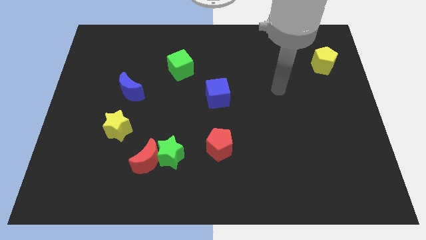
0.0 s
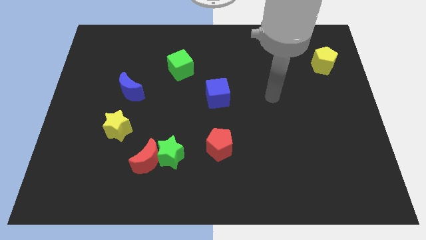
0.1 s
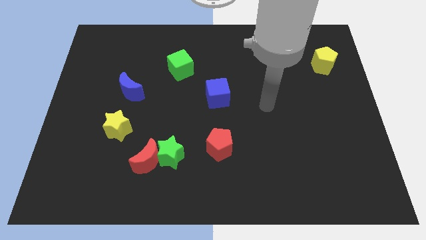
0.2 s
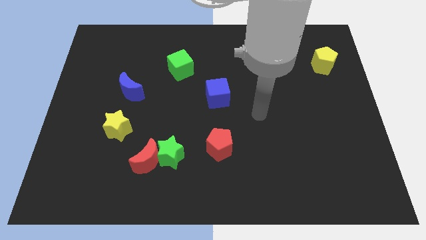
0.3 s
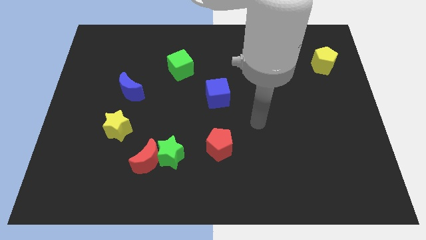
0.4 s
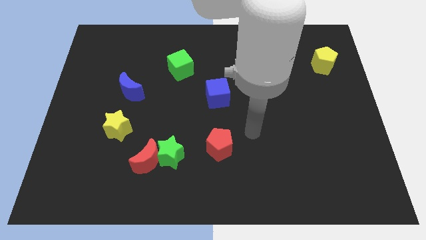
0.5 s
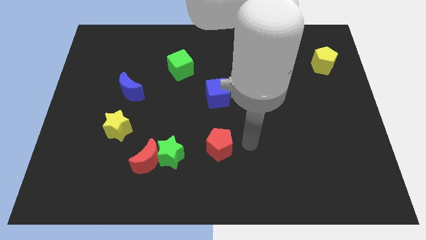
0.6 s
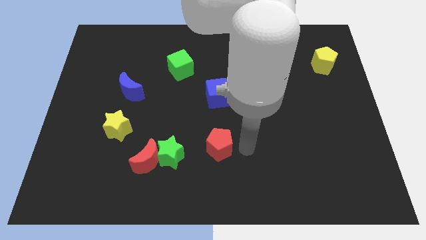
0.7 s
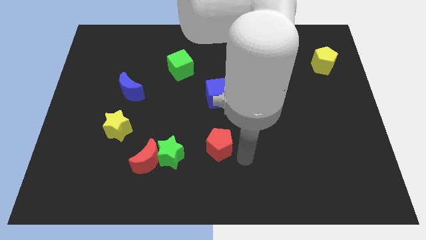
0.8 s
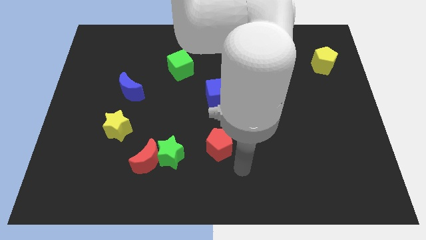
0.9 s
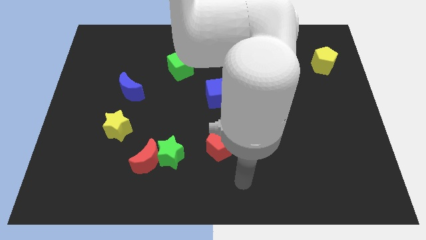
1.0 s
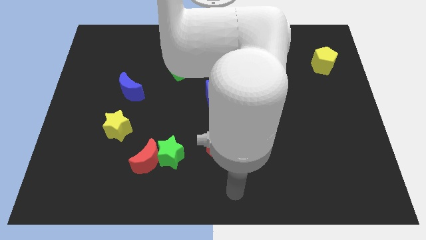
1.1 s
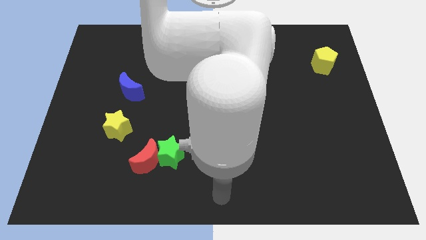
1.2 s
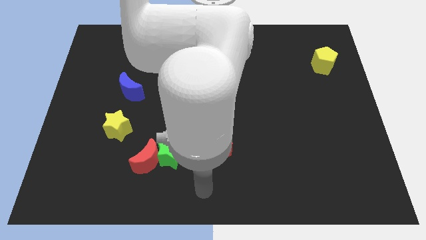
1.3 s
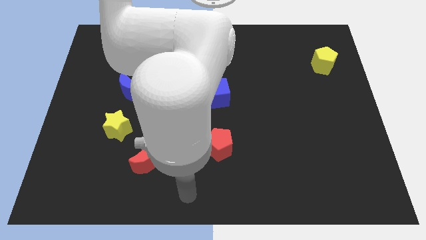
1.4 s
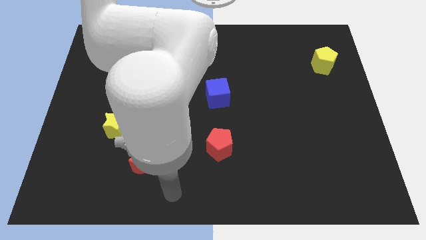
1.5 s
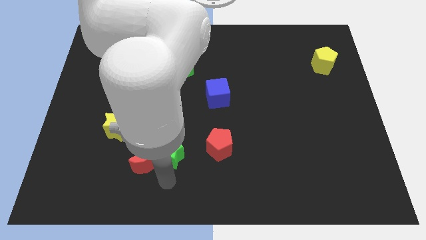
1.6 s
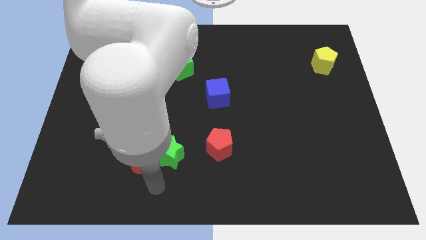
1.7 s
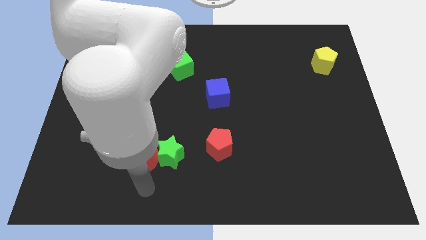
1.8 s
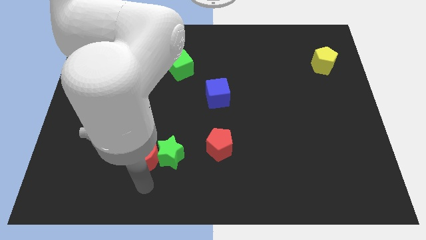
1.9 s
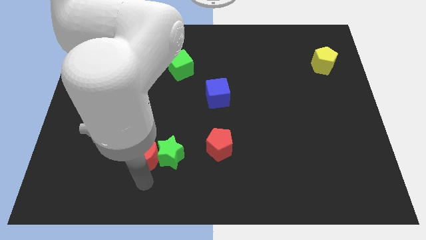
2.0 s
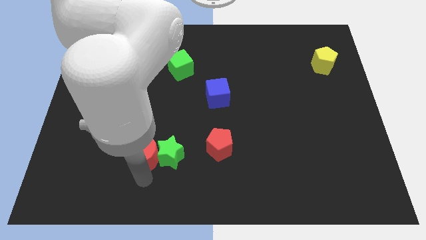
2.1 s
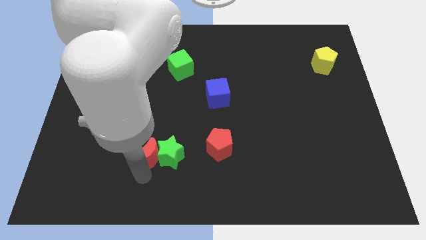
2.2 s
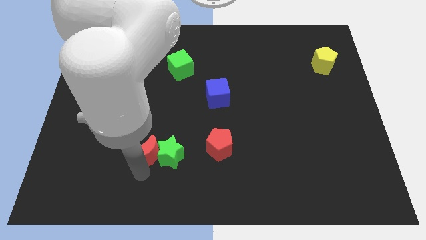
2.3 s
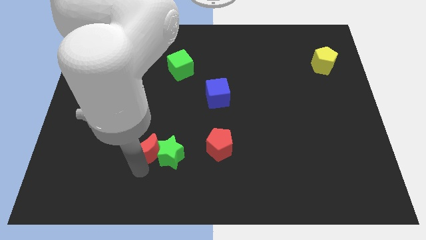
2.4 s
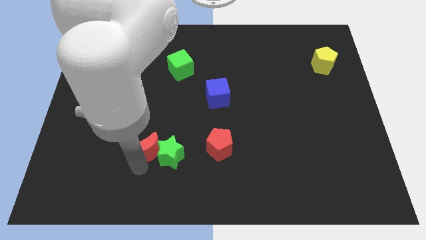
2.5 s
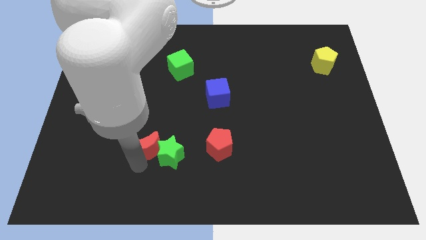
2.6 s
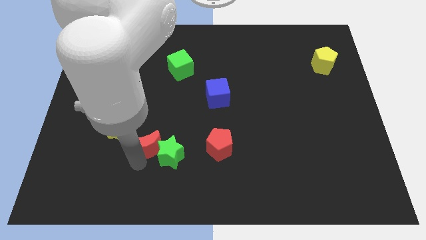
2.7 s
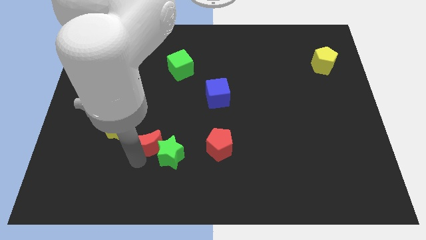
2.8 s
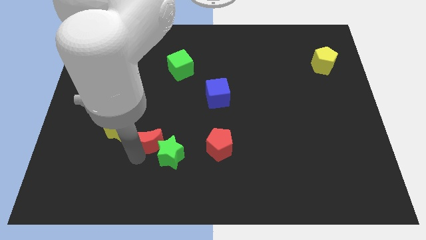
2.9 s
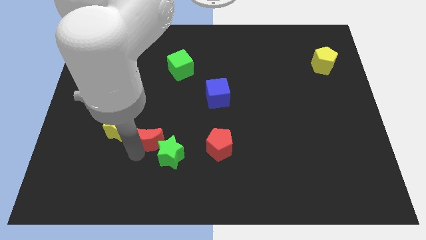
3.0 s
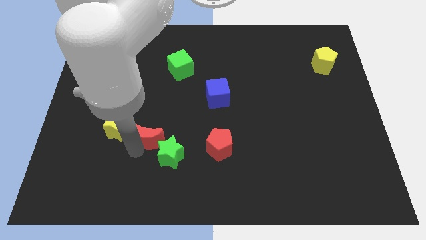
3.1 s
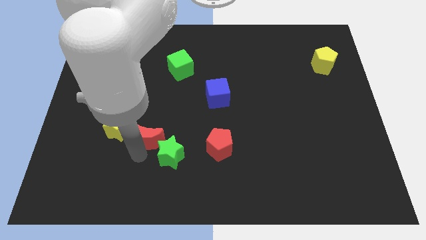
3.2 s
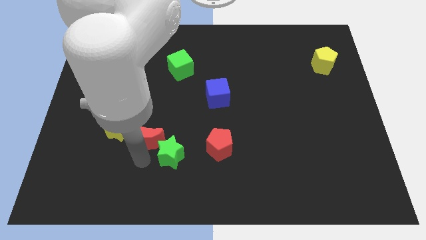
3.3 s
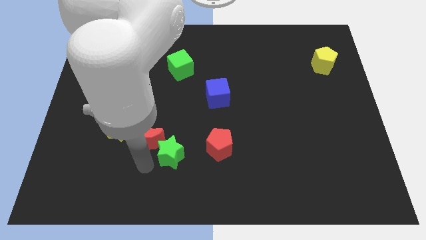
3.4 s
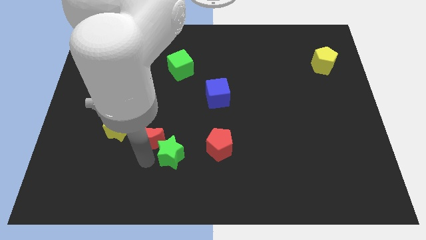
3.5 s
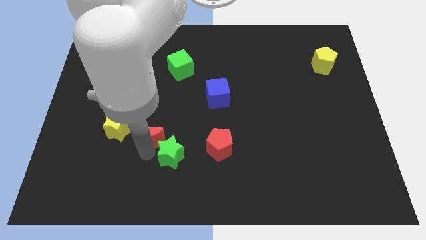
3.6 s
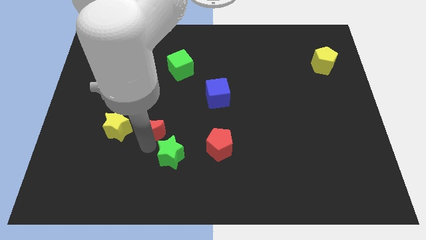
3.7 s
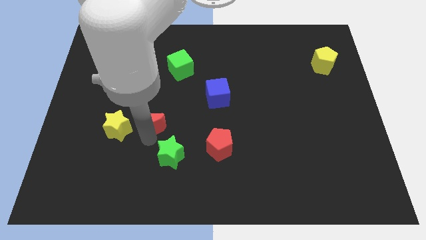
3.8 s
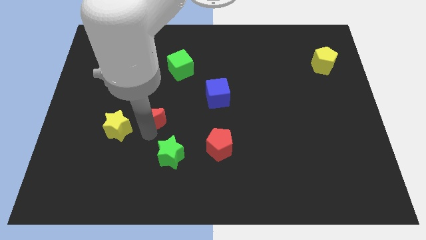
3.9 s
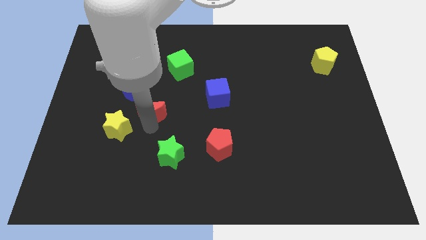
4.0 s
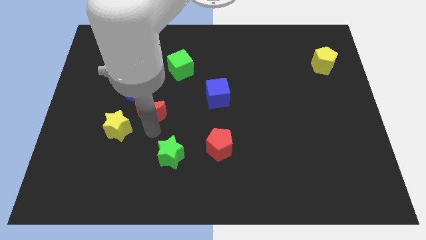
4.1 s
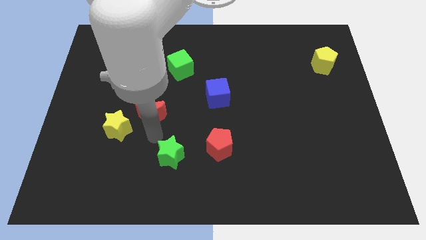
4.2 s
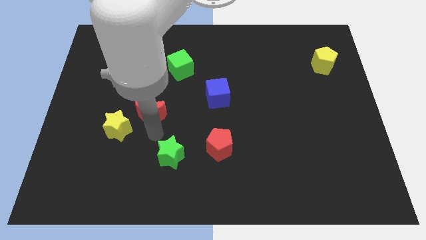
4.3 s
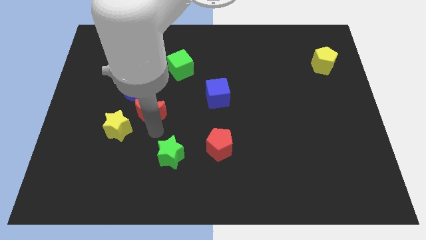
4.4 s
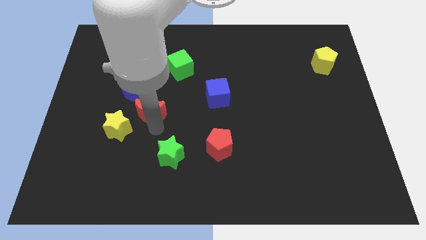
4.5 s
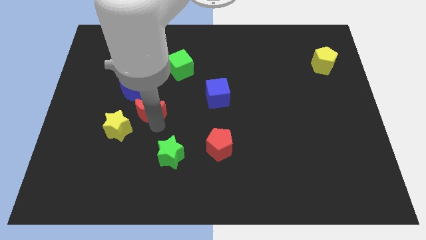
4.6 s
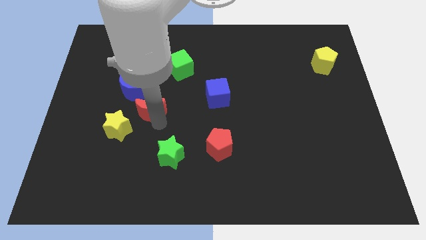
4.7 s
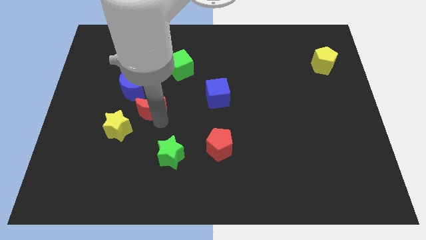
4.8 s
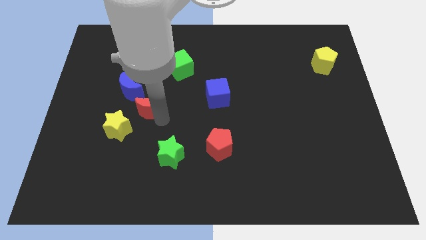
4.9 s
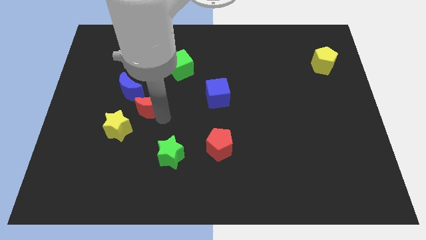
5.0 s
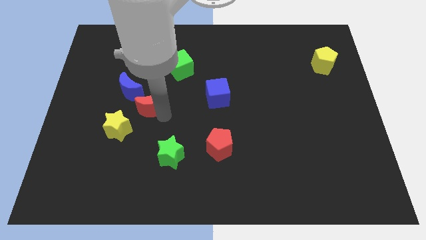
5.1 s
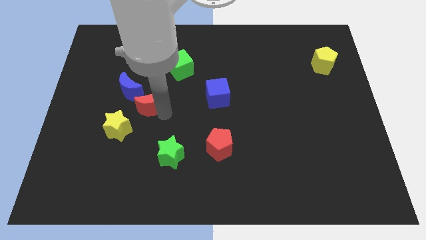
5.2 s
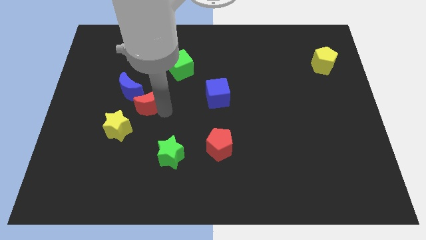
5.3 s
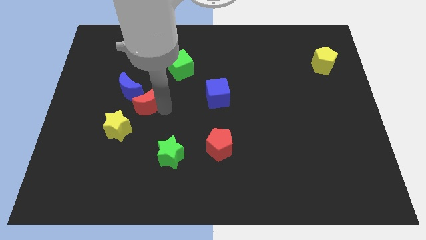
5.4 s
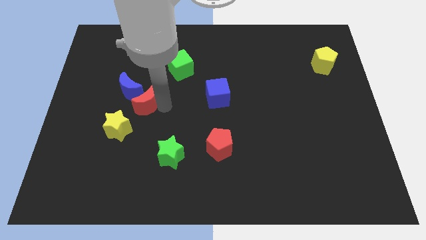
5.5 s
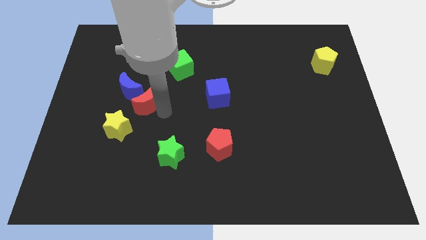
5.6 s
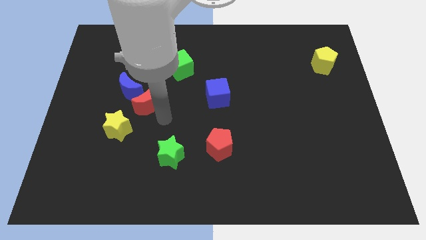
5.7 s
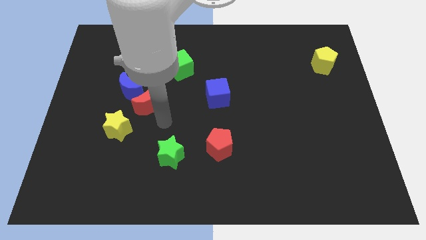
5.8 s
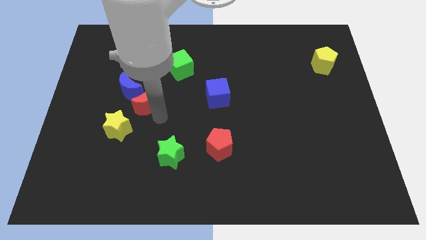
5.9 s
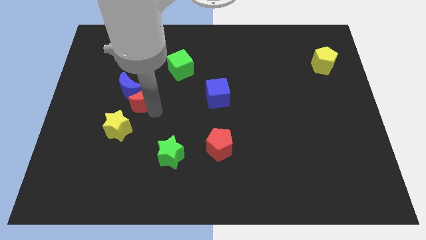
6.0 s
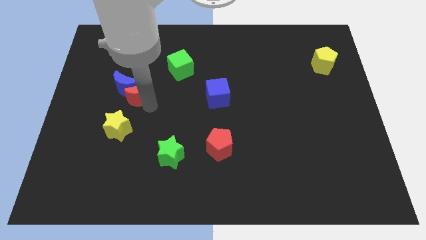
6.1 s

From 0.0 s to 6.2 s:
put the red moon to the top side of the yellow star

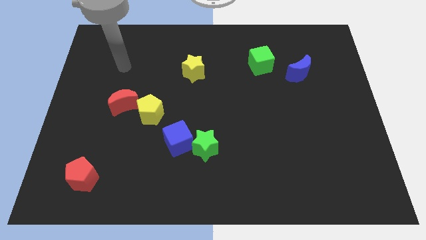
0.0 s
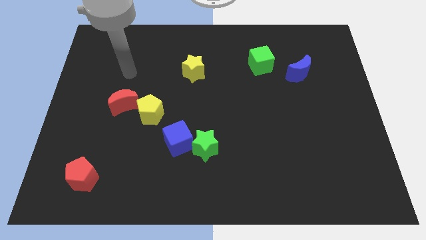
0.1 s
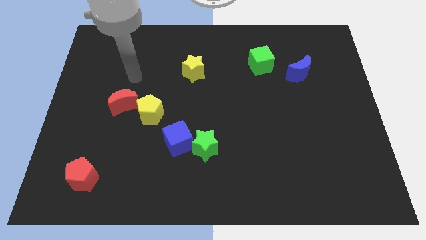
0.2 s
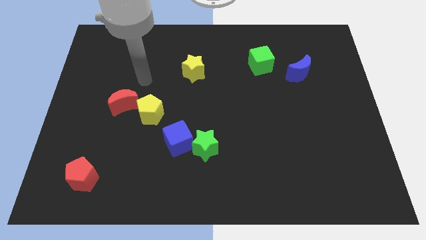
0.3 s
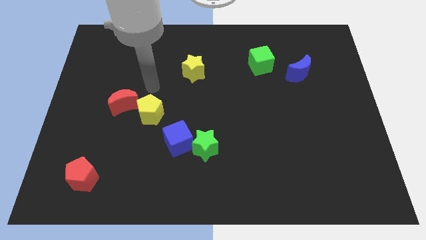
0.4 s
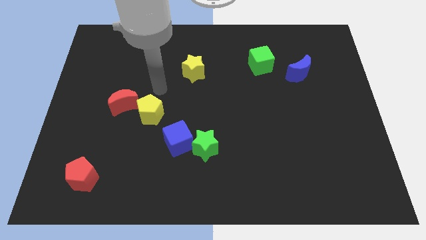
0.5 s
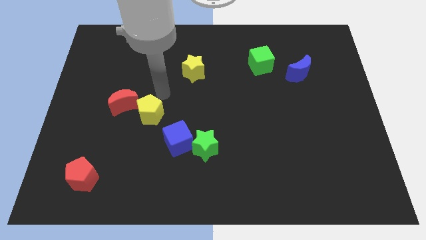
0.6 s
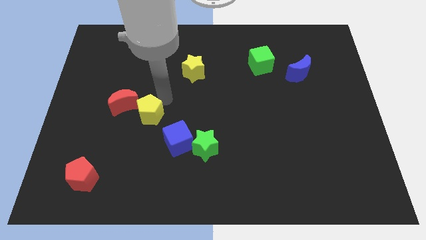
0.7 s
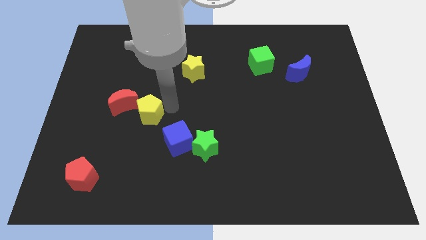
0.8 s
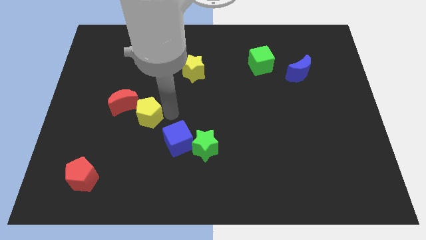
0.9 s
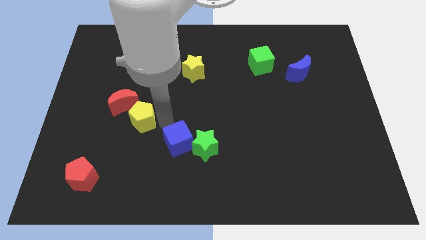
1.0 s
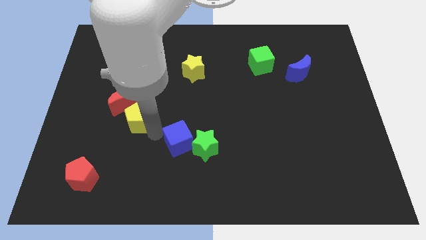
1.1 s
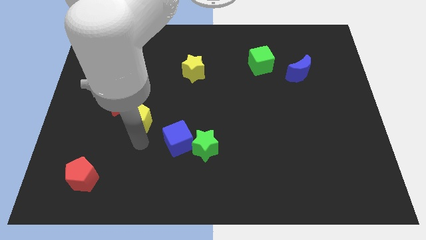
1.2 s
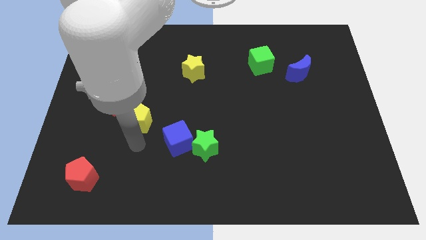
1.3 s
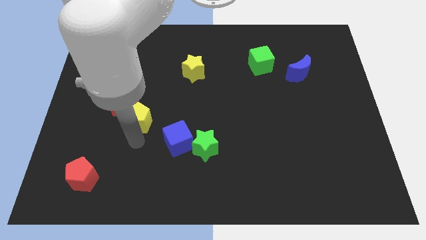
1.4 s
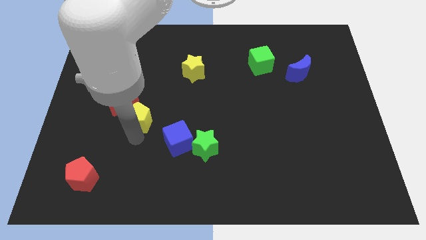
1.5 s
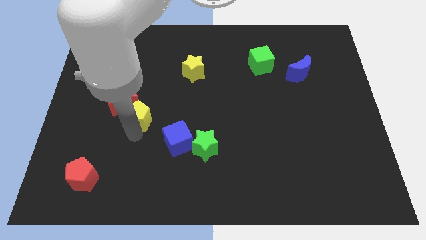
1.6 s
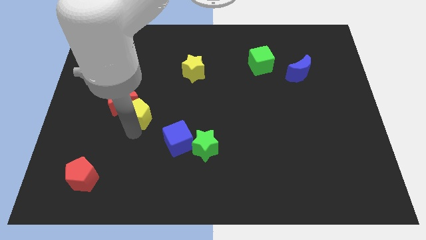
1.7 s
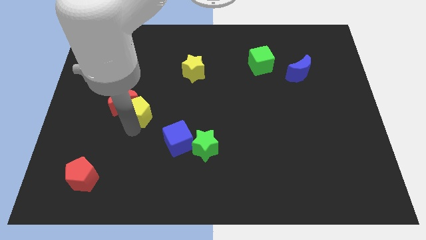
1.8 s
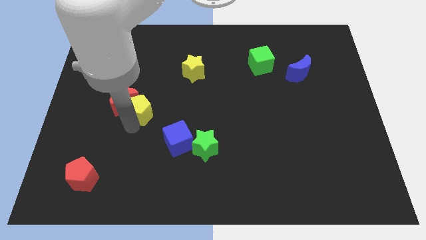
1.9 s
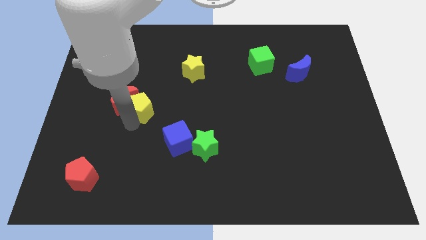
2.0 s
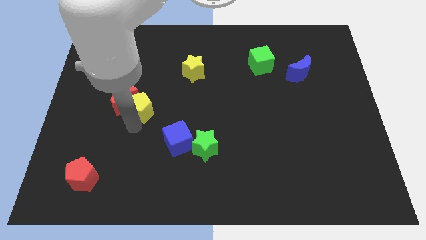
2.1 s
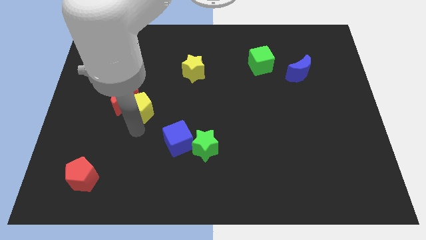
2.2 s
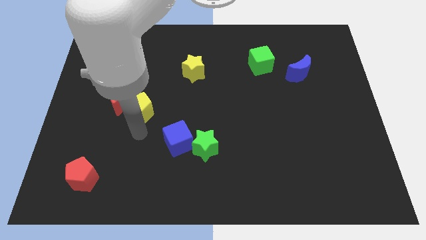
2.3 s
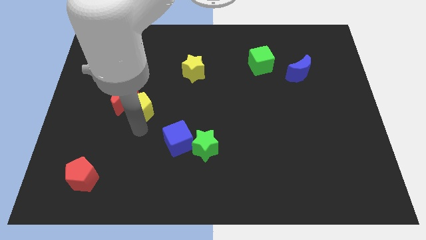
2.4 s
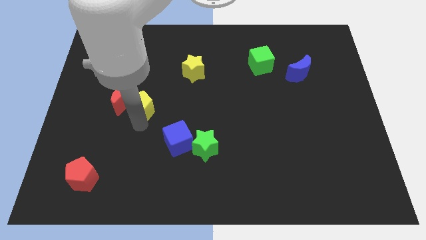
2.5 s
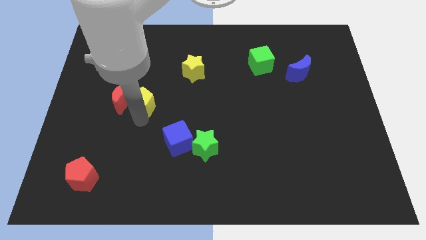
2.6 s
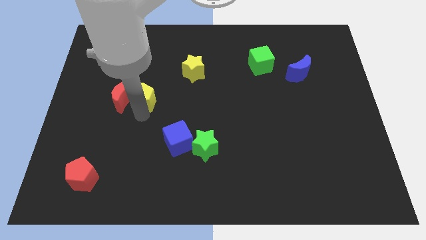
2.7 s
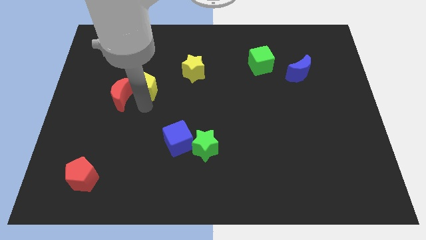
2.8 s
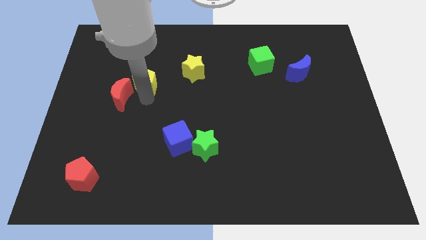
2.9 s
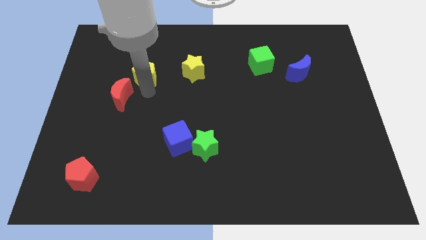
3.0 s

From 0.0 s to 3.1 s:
push the yellow pentagon to the top of the red moon
